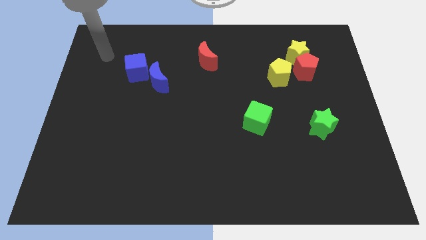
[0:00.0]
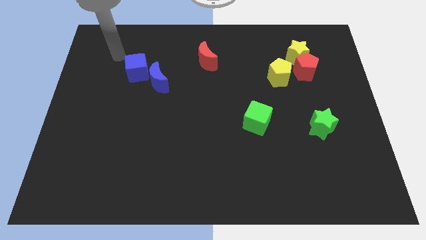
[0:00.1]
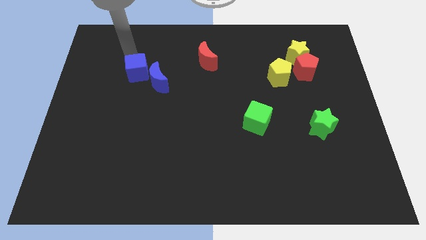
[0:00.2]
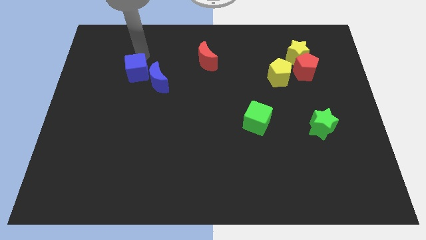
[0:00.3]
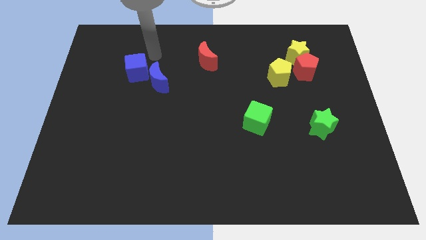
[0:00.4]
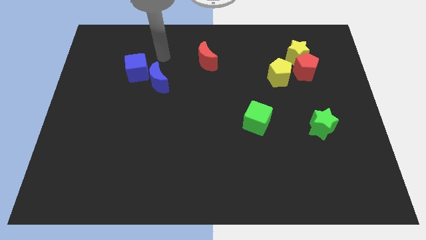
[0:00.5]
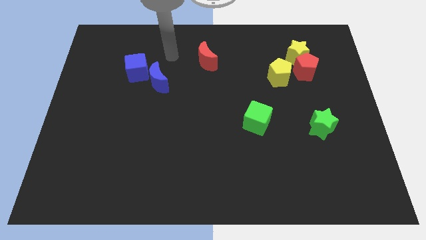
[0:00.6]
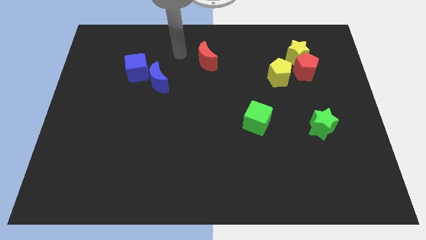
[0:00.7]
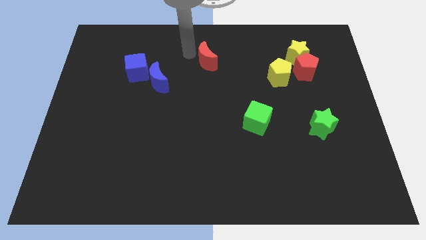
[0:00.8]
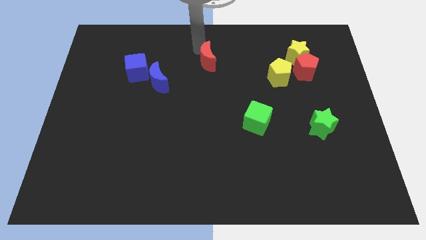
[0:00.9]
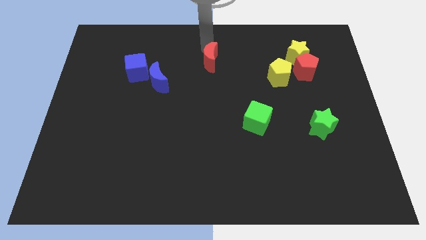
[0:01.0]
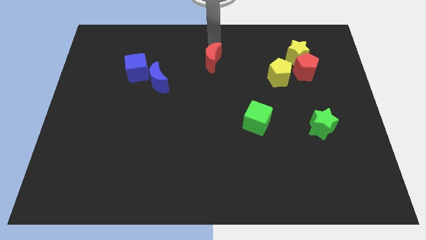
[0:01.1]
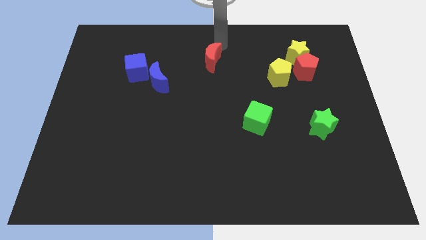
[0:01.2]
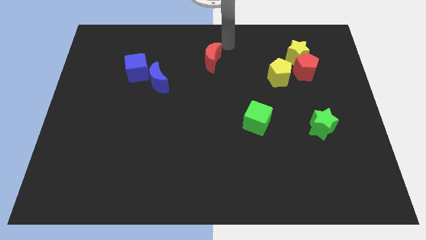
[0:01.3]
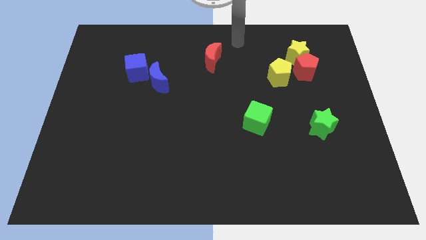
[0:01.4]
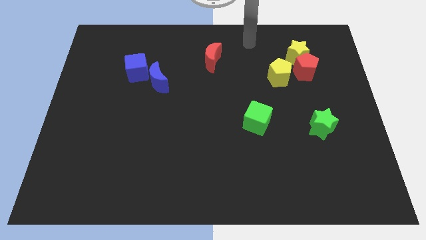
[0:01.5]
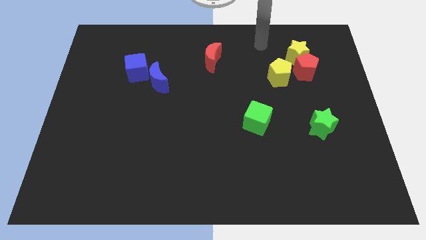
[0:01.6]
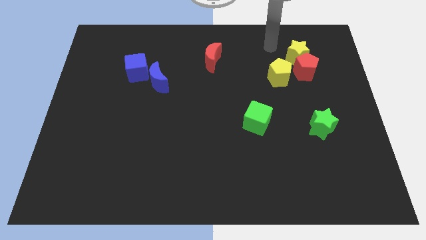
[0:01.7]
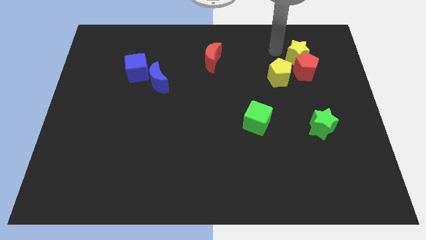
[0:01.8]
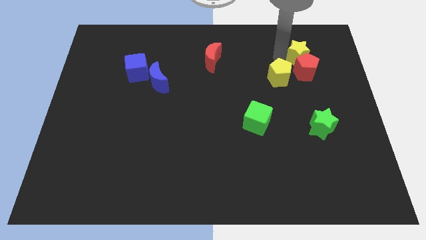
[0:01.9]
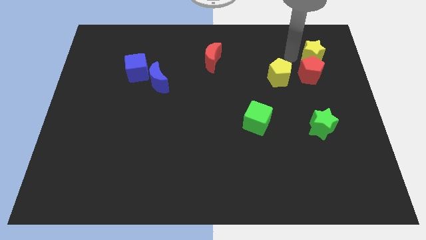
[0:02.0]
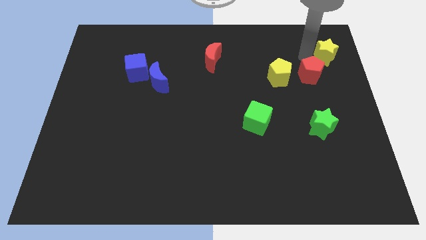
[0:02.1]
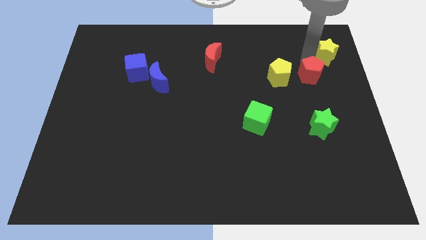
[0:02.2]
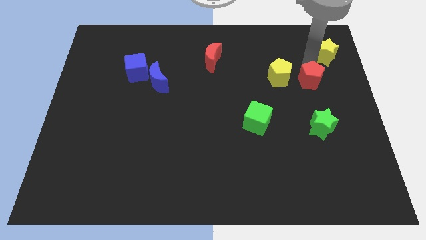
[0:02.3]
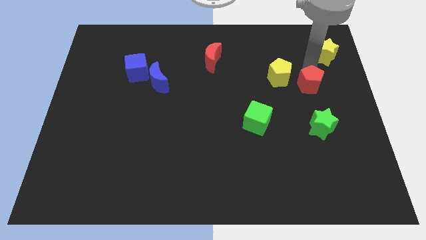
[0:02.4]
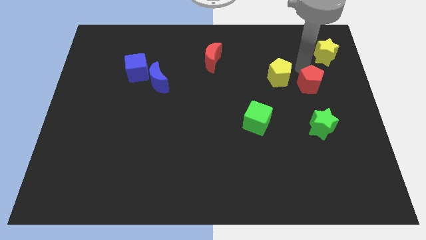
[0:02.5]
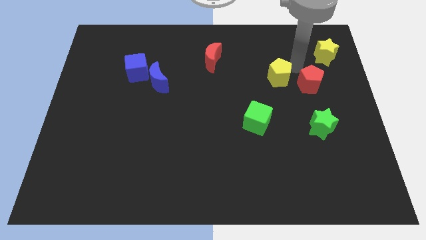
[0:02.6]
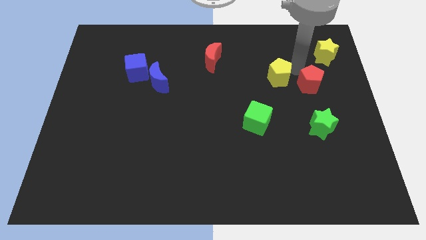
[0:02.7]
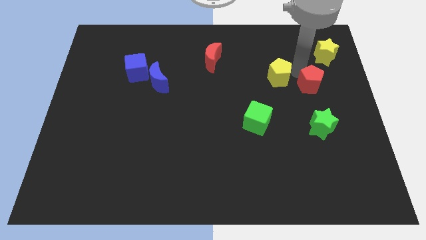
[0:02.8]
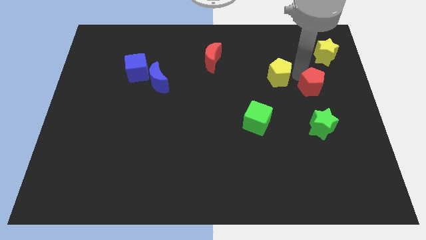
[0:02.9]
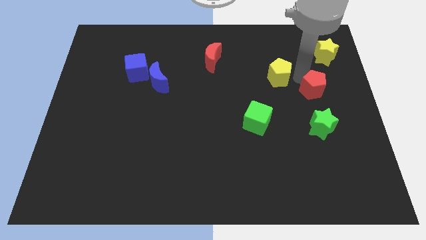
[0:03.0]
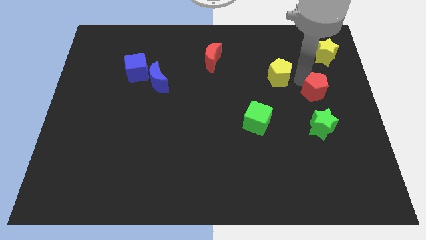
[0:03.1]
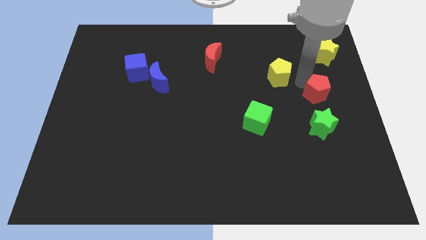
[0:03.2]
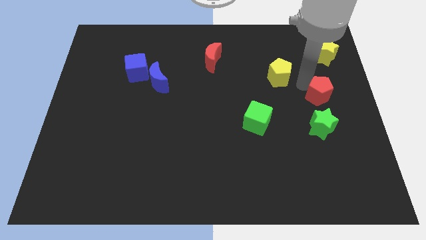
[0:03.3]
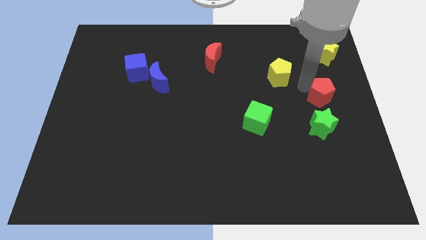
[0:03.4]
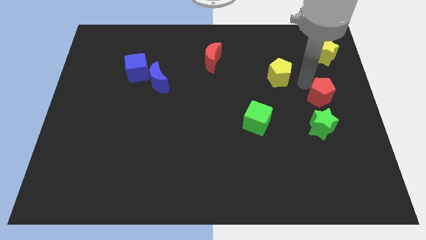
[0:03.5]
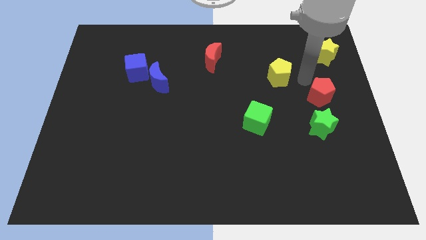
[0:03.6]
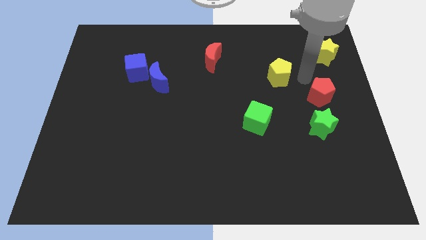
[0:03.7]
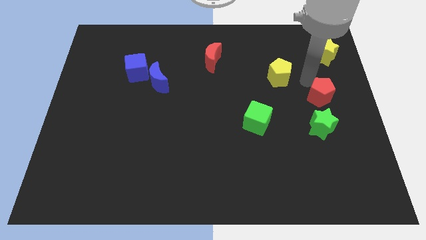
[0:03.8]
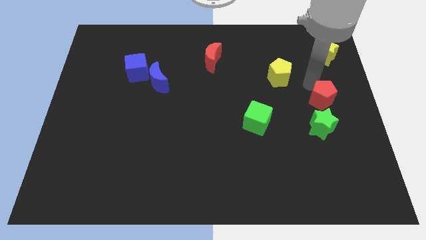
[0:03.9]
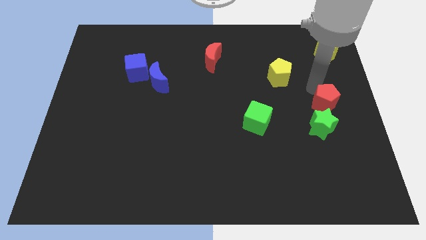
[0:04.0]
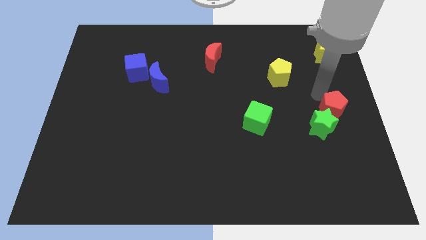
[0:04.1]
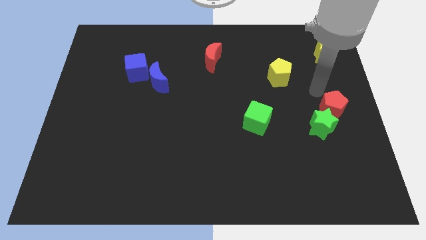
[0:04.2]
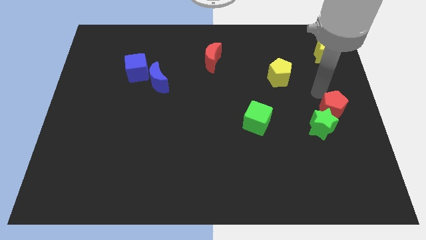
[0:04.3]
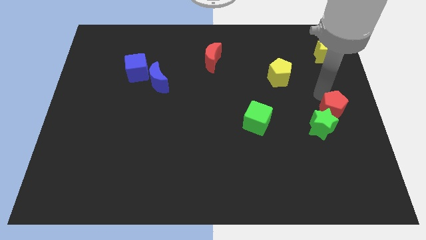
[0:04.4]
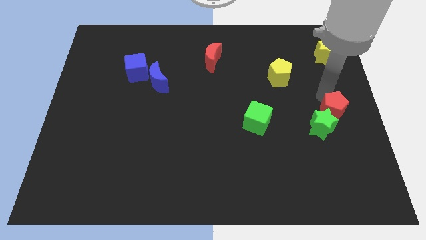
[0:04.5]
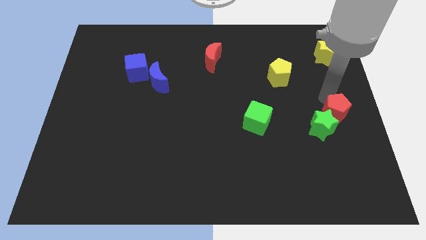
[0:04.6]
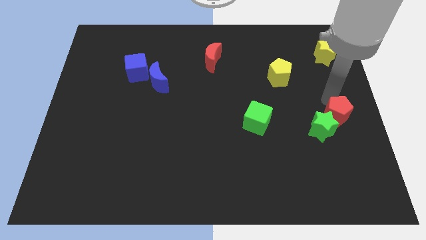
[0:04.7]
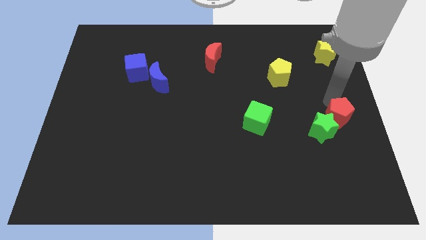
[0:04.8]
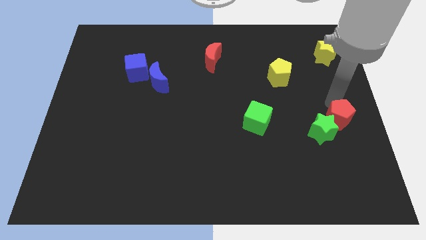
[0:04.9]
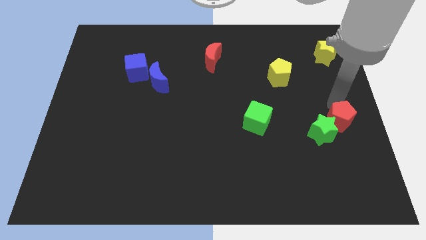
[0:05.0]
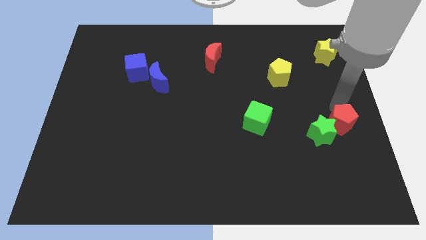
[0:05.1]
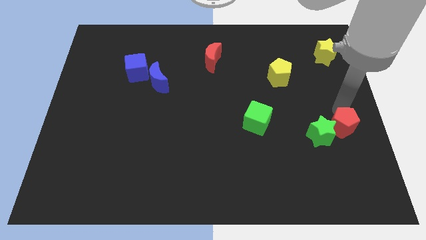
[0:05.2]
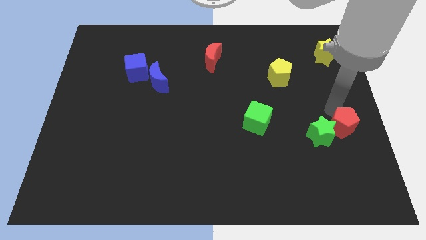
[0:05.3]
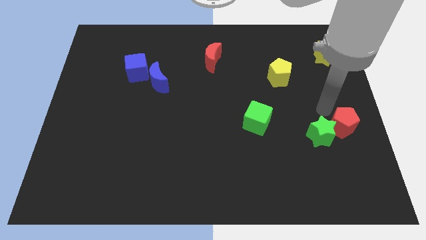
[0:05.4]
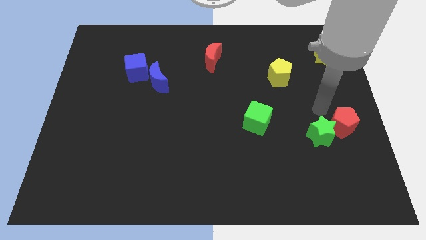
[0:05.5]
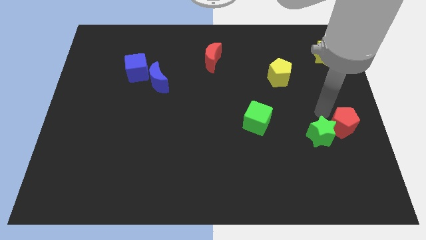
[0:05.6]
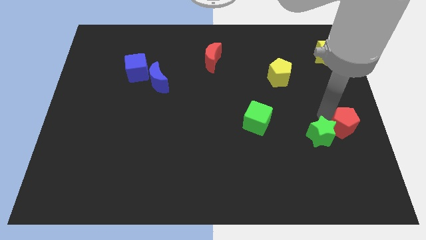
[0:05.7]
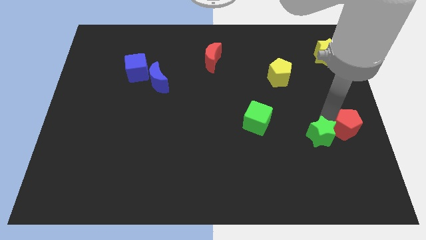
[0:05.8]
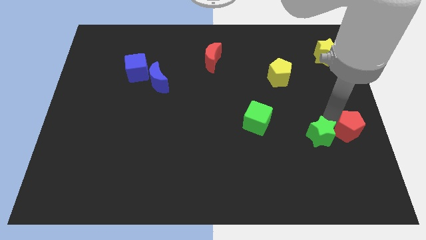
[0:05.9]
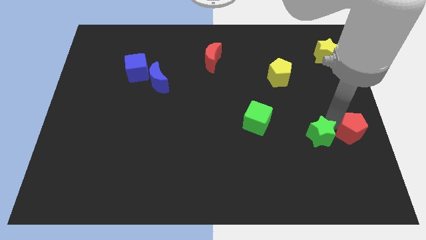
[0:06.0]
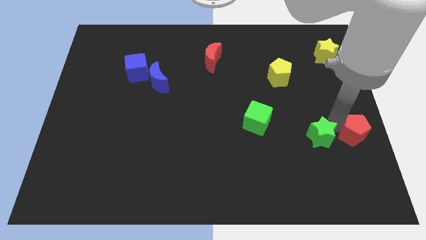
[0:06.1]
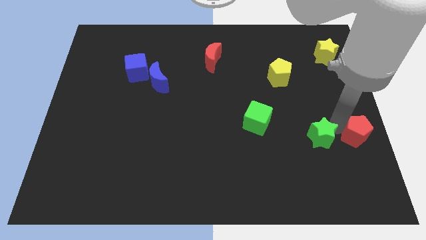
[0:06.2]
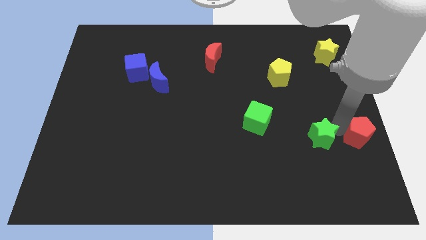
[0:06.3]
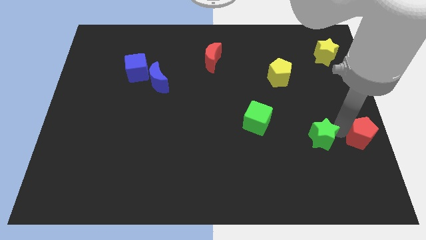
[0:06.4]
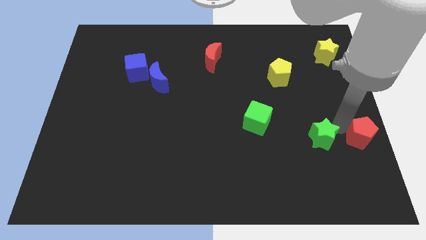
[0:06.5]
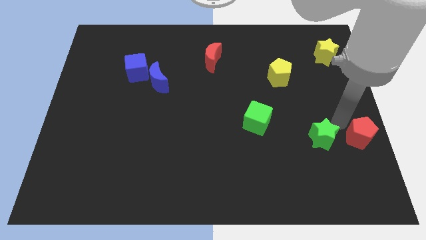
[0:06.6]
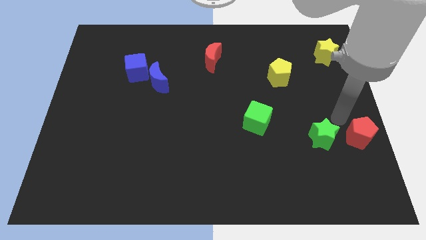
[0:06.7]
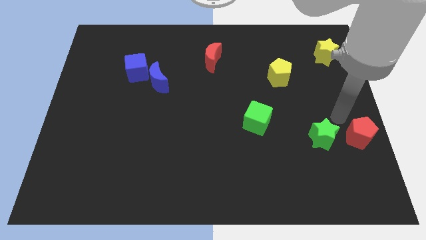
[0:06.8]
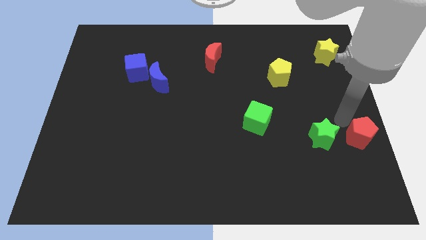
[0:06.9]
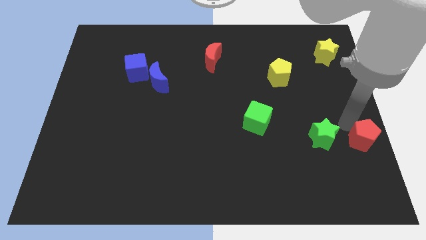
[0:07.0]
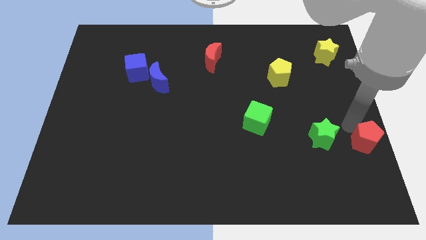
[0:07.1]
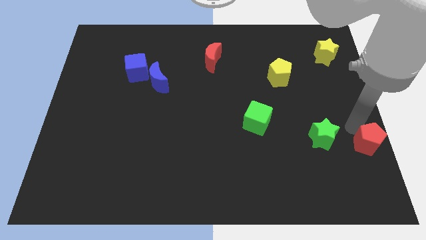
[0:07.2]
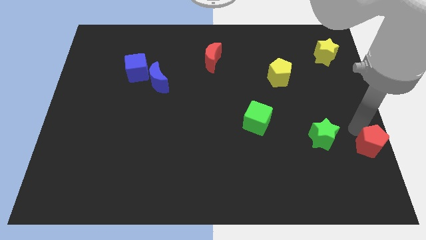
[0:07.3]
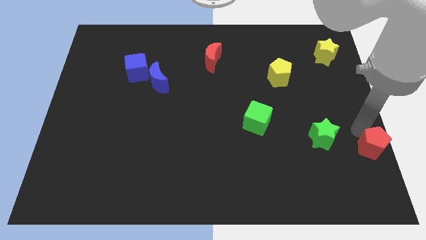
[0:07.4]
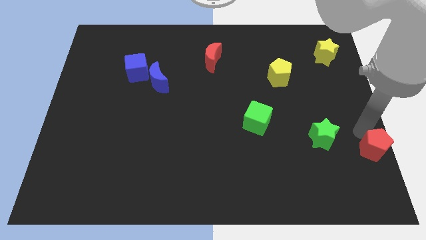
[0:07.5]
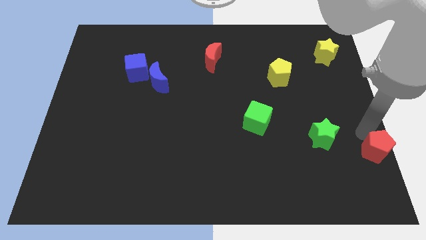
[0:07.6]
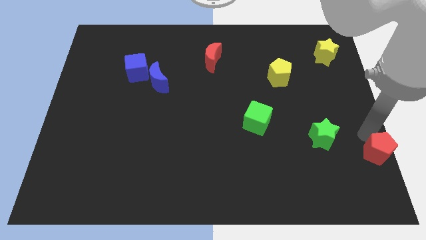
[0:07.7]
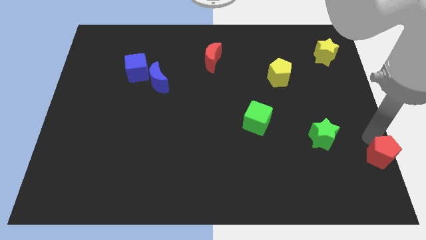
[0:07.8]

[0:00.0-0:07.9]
put the red pentagon to the lower right corner
